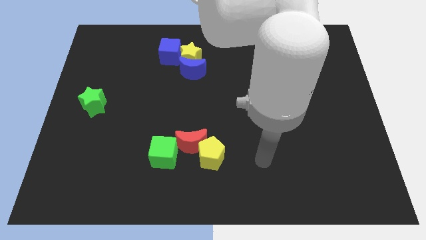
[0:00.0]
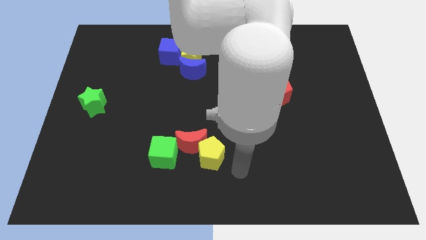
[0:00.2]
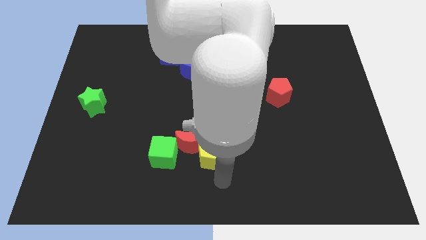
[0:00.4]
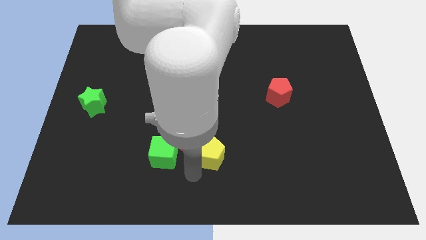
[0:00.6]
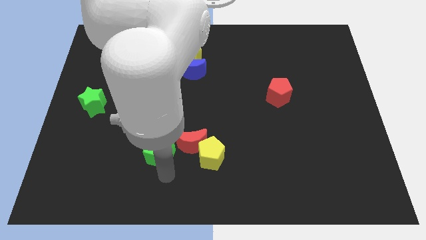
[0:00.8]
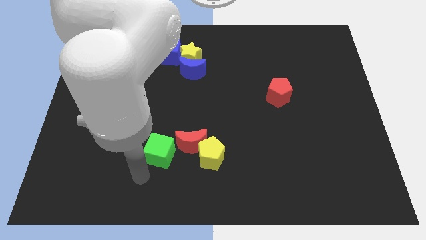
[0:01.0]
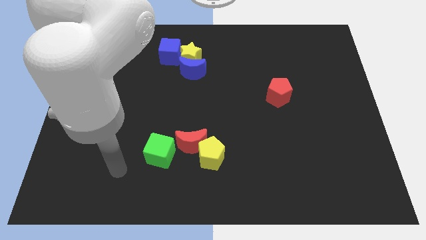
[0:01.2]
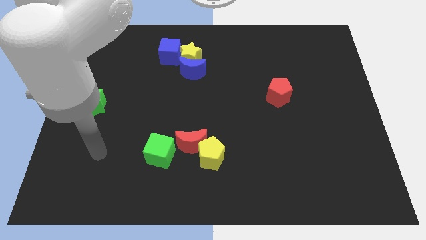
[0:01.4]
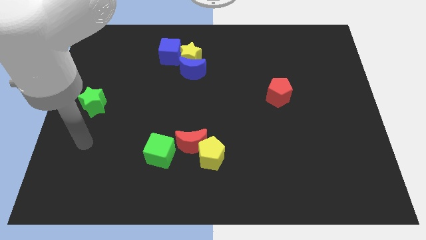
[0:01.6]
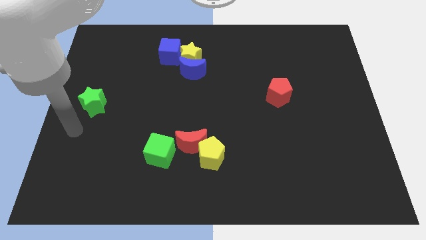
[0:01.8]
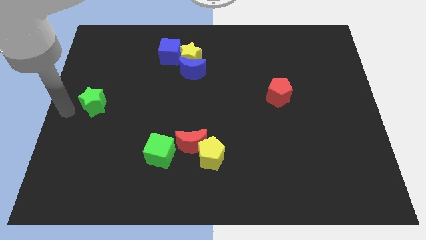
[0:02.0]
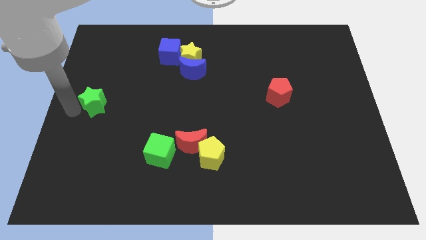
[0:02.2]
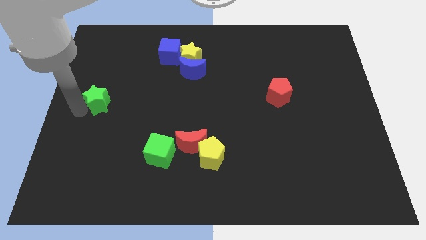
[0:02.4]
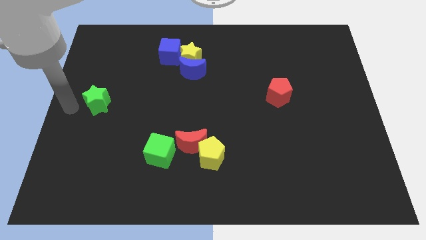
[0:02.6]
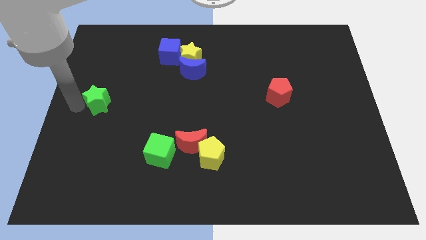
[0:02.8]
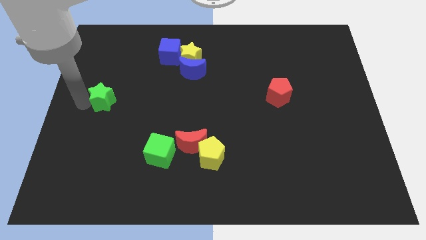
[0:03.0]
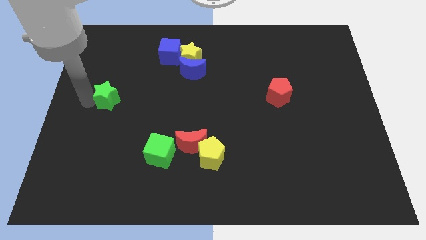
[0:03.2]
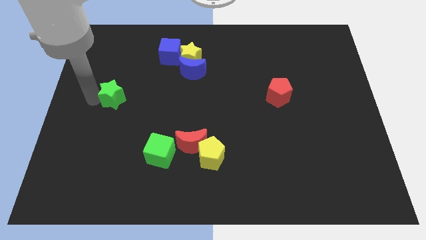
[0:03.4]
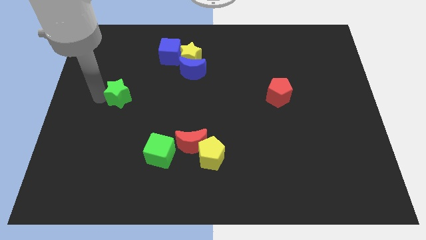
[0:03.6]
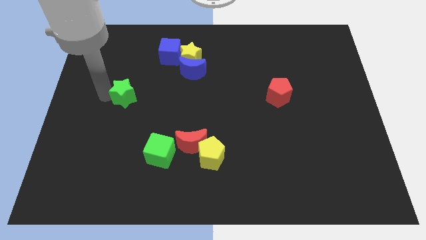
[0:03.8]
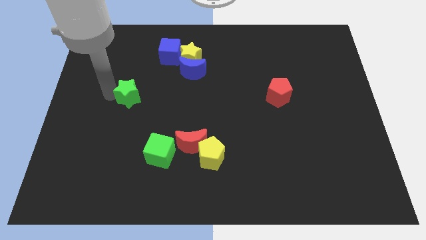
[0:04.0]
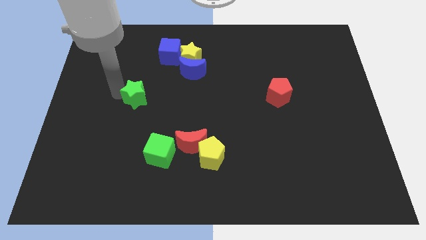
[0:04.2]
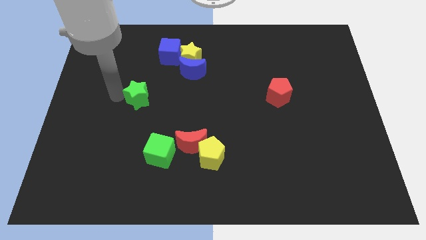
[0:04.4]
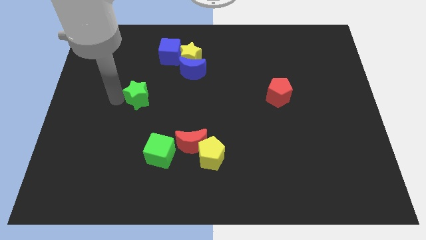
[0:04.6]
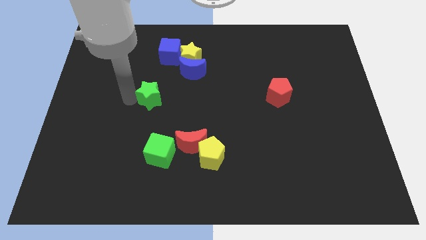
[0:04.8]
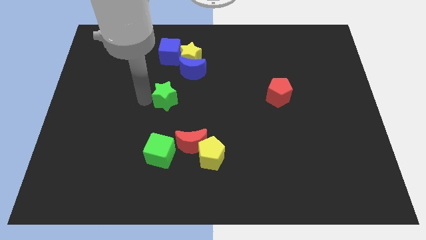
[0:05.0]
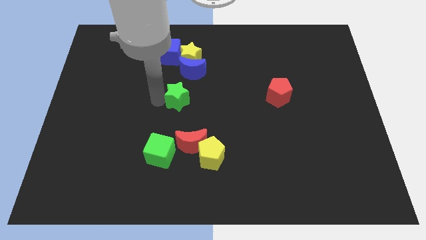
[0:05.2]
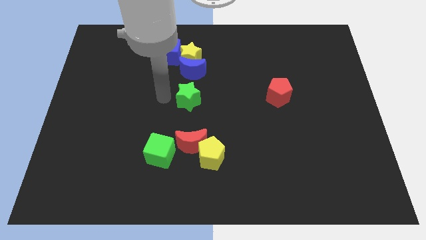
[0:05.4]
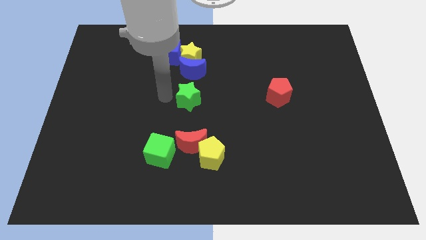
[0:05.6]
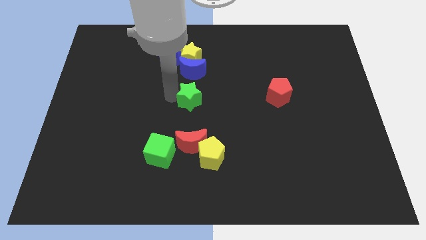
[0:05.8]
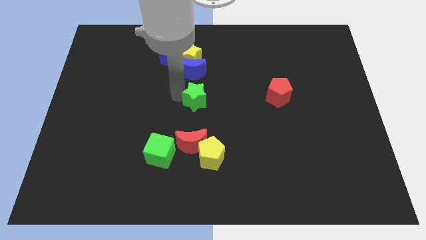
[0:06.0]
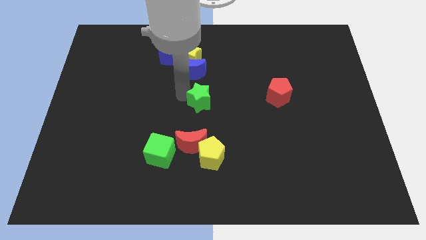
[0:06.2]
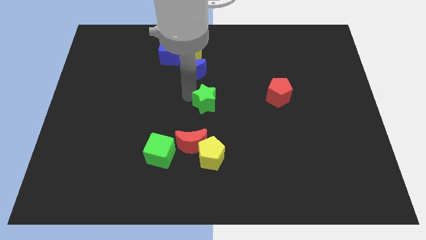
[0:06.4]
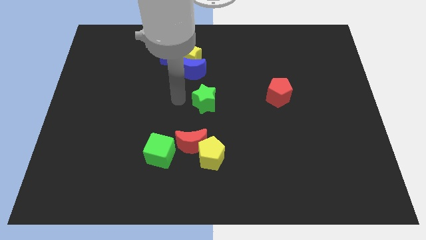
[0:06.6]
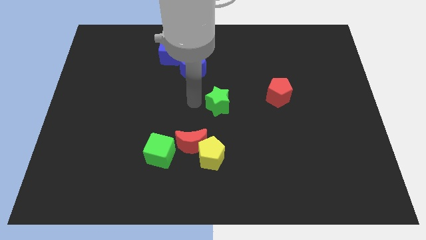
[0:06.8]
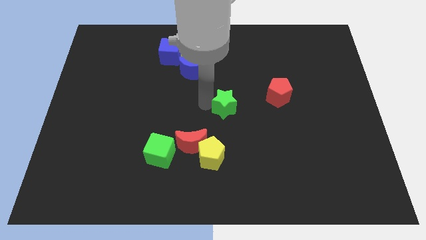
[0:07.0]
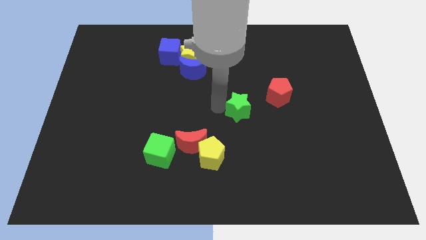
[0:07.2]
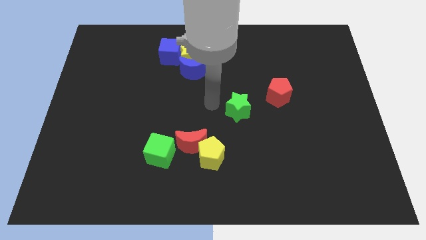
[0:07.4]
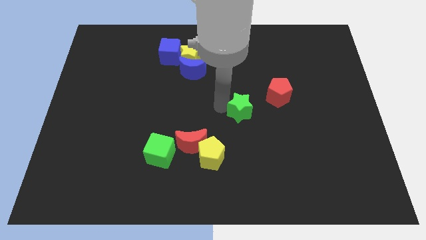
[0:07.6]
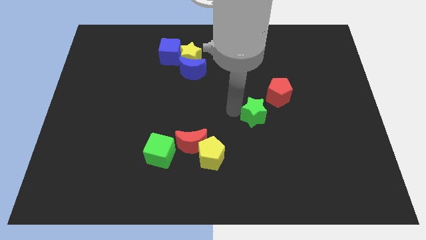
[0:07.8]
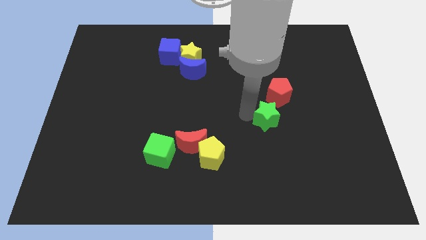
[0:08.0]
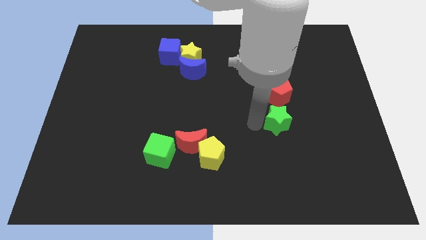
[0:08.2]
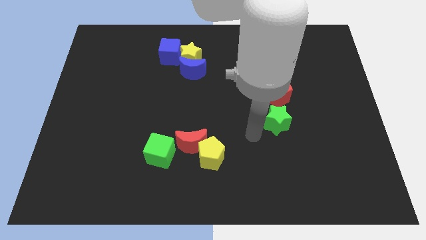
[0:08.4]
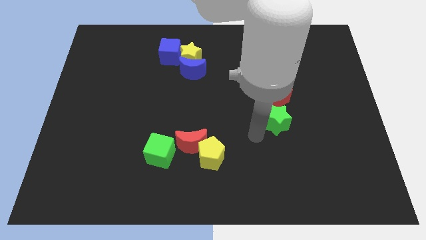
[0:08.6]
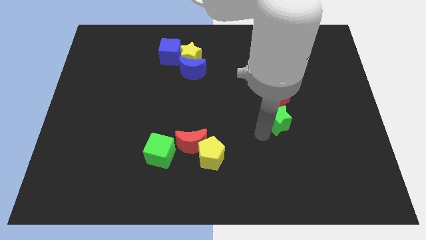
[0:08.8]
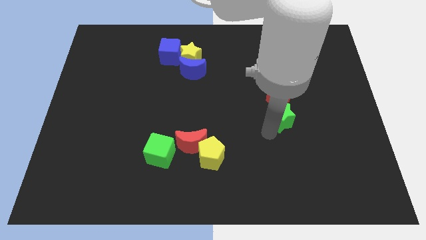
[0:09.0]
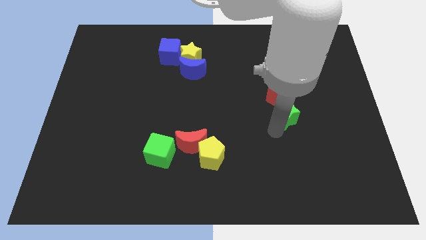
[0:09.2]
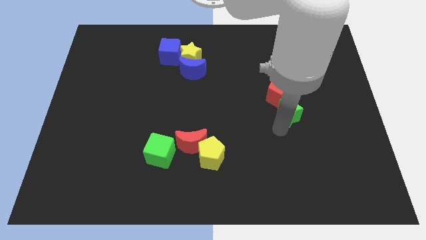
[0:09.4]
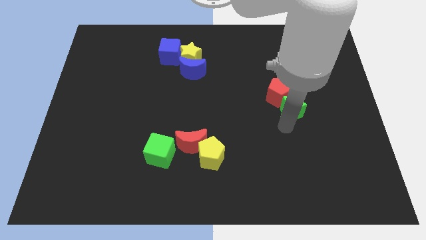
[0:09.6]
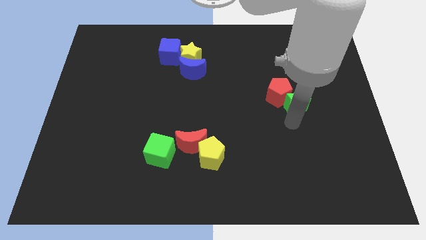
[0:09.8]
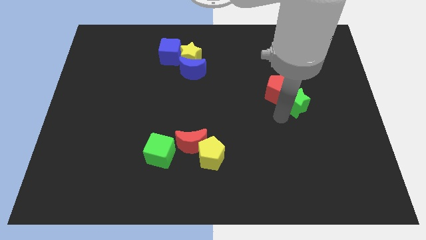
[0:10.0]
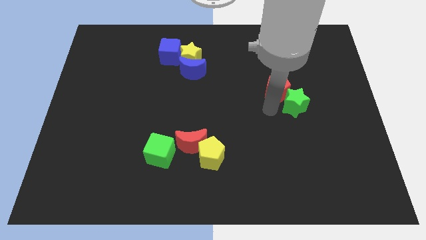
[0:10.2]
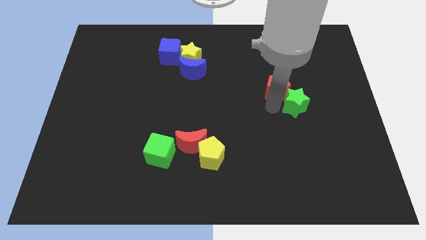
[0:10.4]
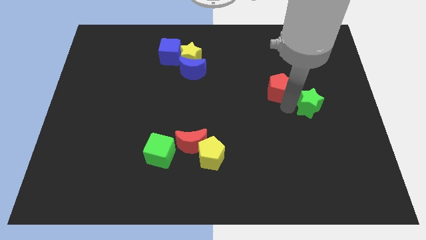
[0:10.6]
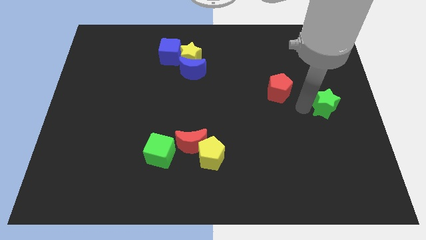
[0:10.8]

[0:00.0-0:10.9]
move the green star to the right side
